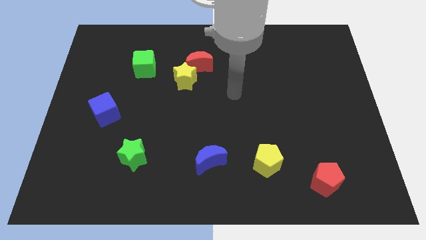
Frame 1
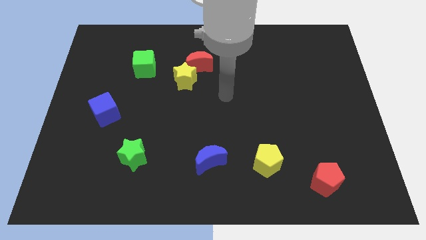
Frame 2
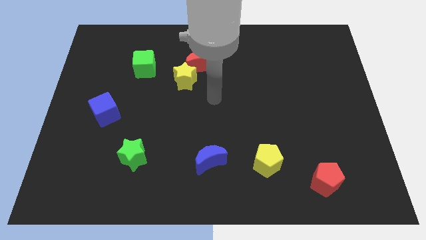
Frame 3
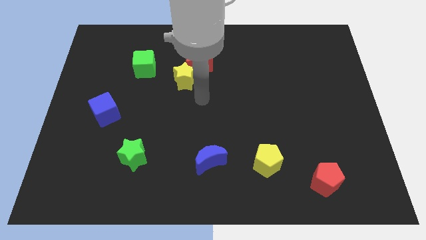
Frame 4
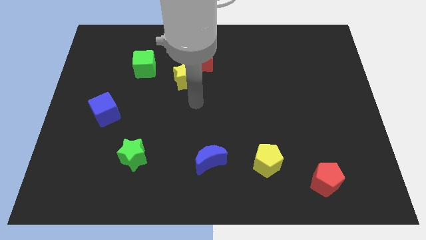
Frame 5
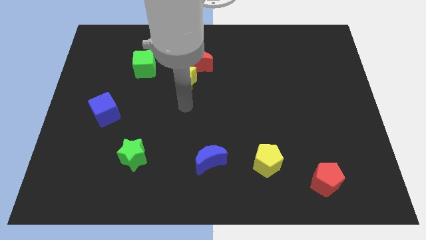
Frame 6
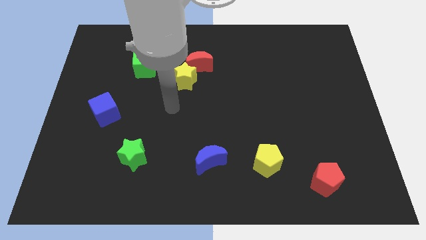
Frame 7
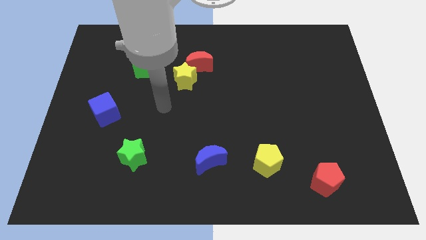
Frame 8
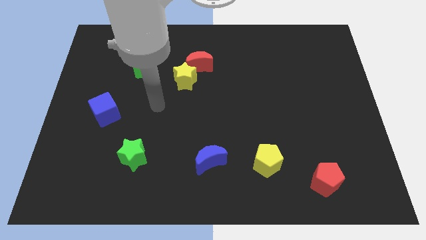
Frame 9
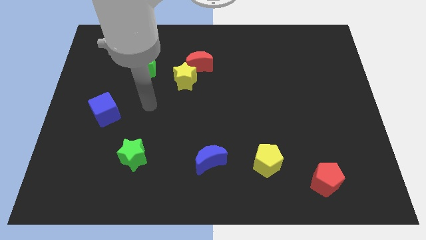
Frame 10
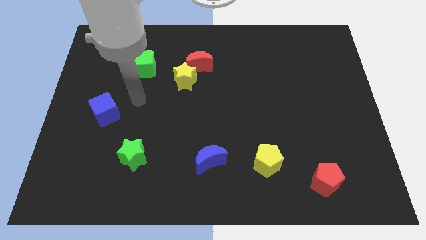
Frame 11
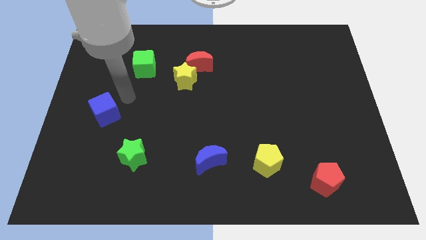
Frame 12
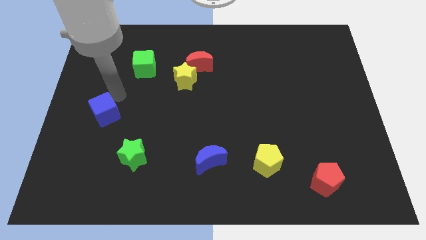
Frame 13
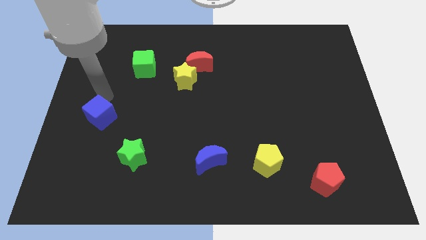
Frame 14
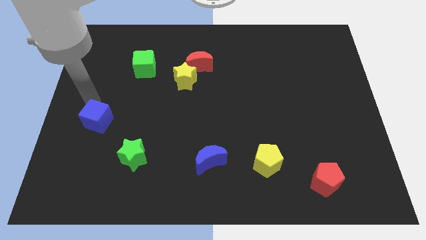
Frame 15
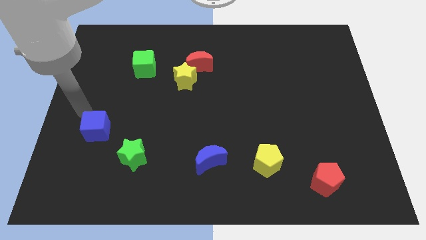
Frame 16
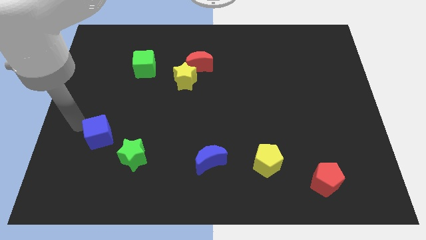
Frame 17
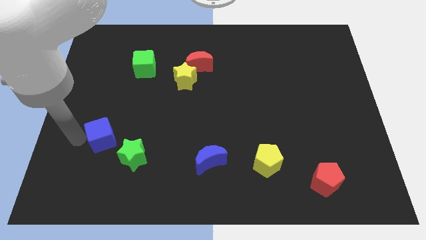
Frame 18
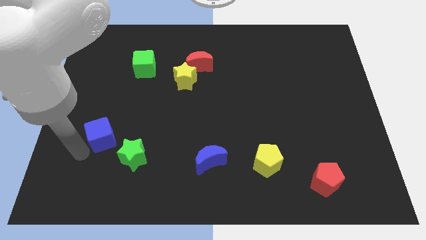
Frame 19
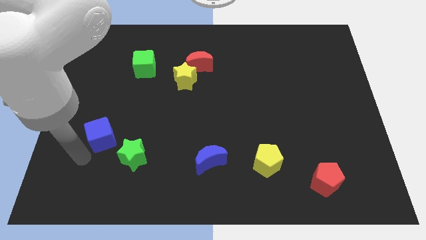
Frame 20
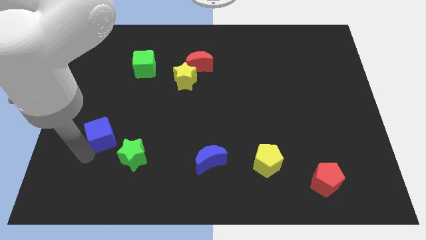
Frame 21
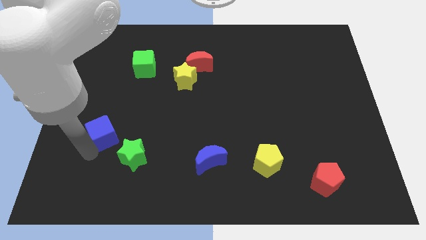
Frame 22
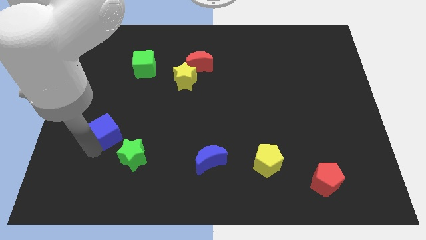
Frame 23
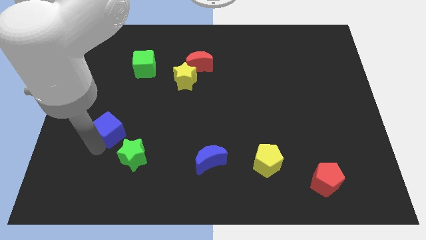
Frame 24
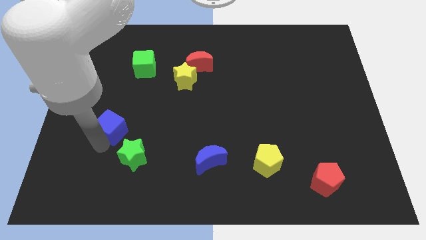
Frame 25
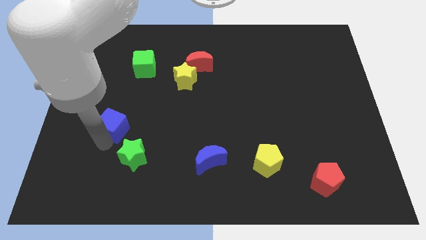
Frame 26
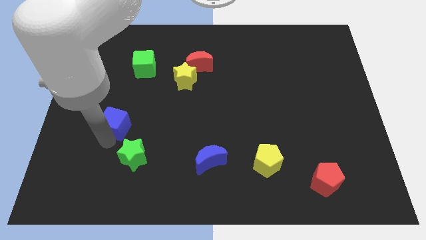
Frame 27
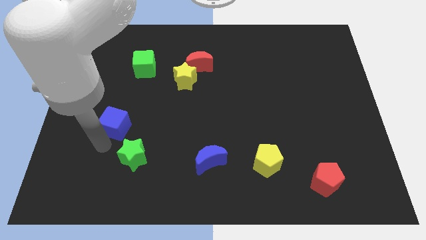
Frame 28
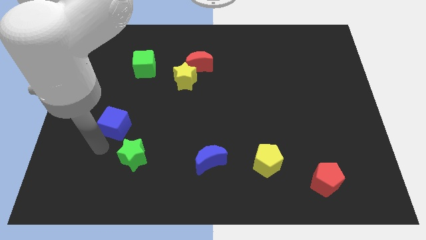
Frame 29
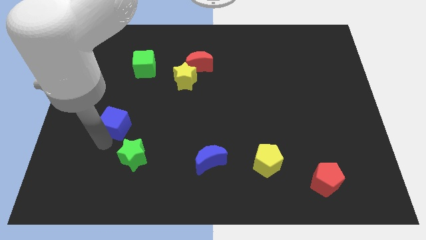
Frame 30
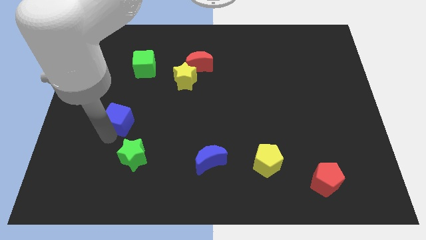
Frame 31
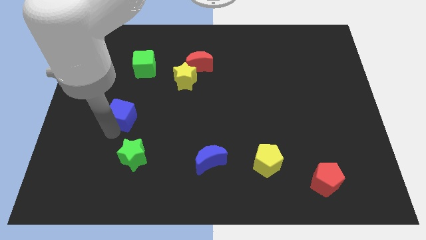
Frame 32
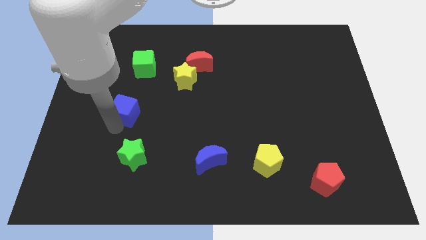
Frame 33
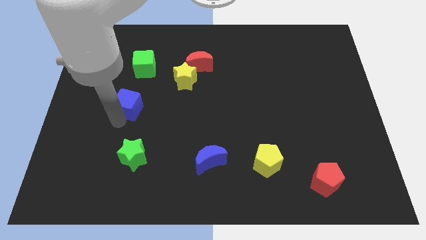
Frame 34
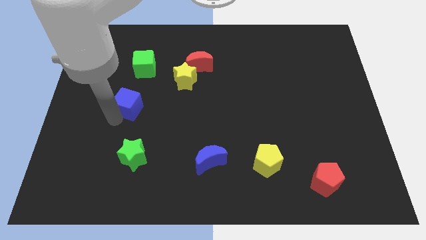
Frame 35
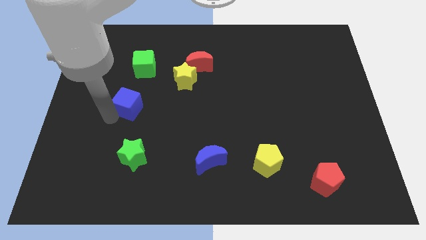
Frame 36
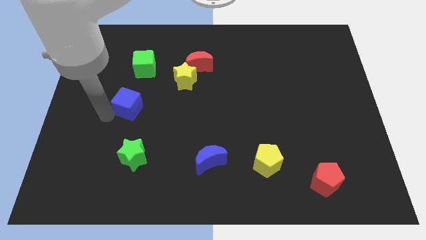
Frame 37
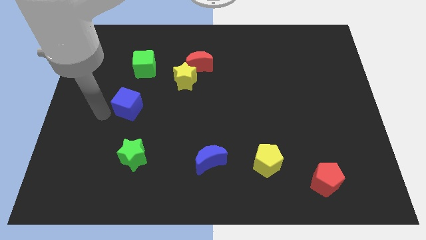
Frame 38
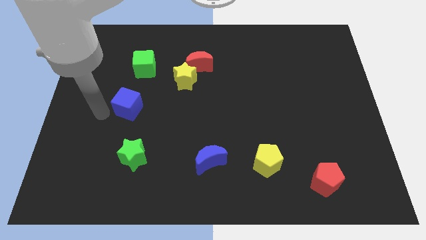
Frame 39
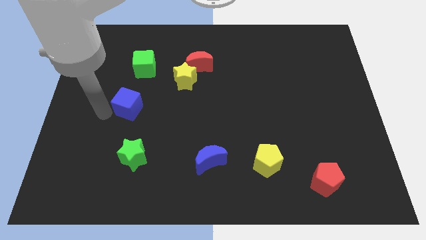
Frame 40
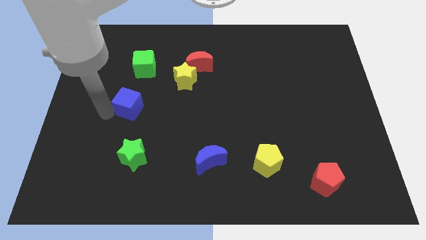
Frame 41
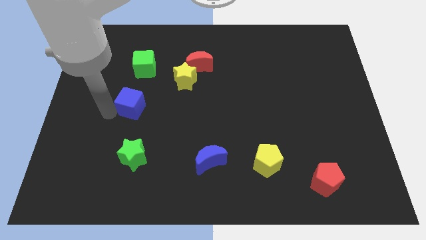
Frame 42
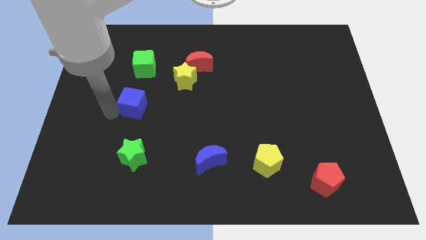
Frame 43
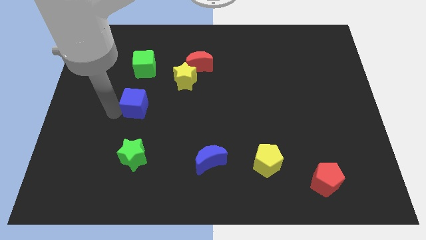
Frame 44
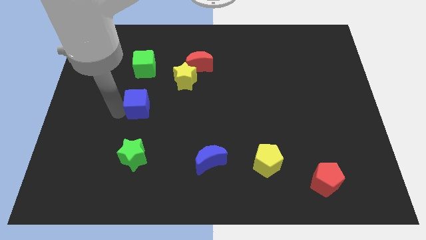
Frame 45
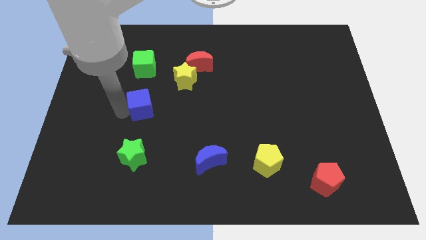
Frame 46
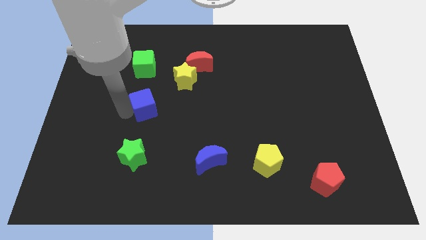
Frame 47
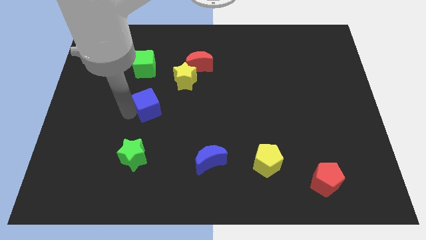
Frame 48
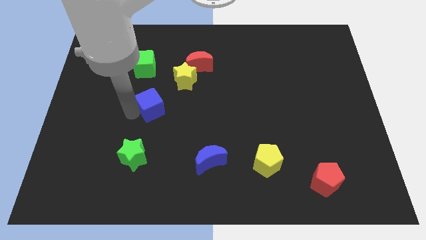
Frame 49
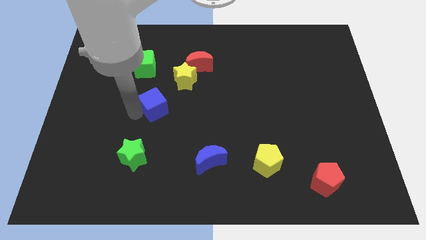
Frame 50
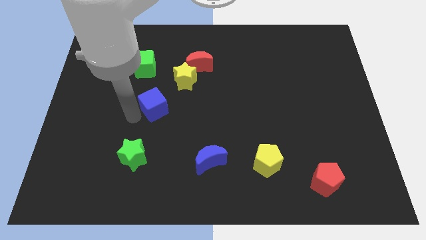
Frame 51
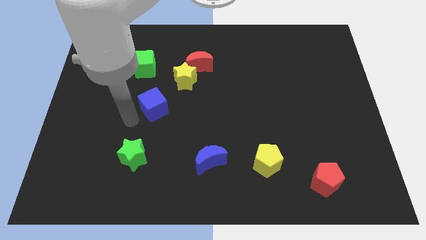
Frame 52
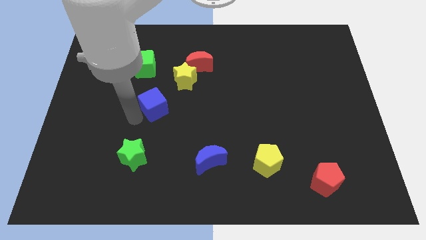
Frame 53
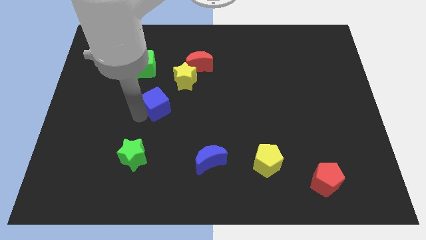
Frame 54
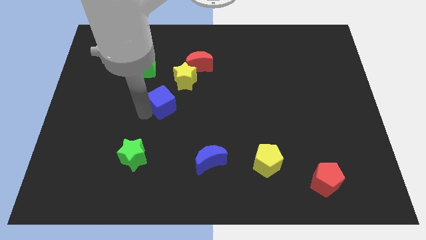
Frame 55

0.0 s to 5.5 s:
slide the blue cube to the center of the board
